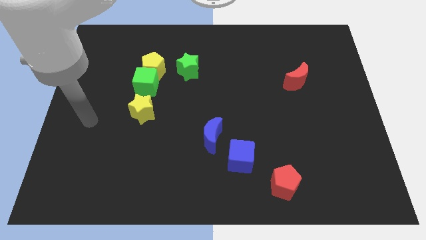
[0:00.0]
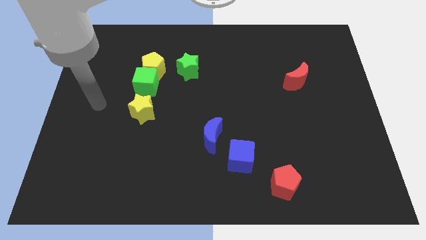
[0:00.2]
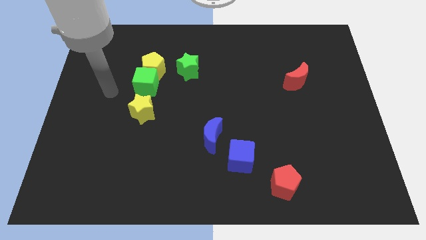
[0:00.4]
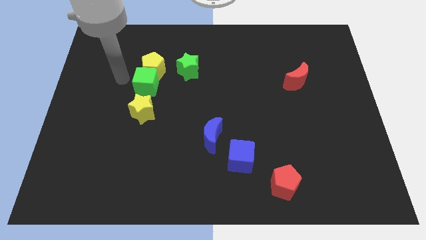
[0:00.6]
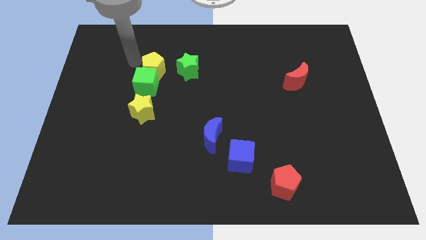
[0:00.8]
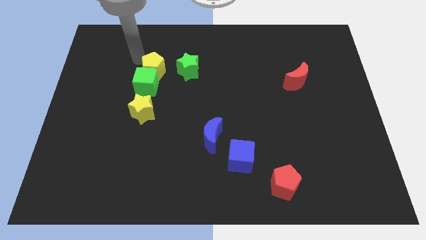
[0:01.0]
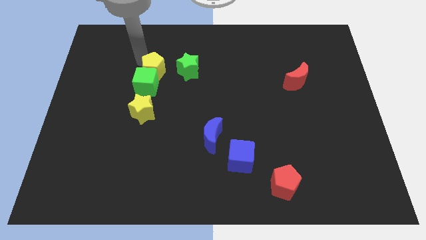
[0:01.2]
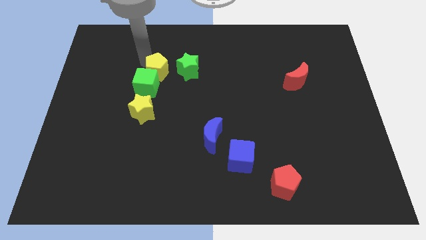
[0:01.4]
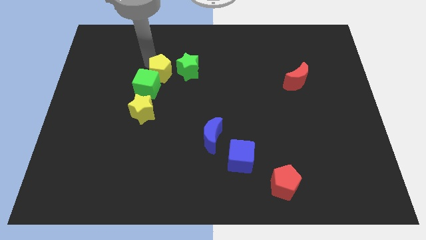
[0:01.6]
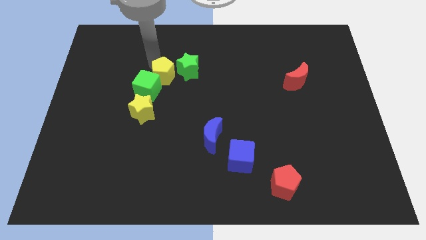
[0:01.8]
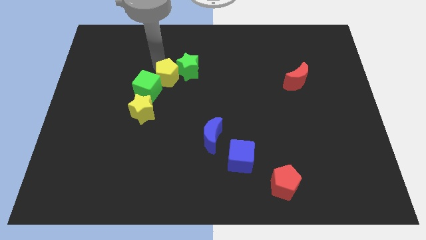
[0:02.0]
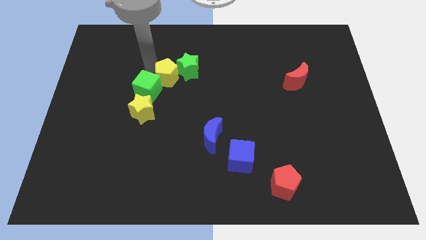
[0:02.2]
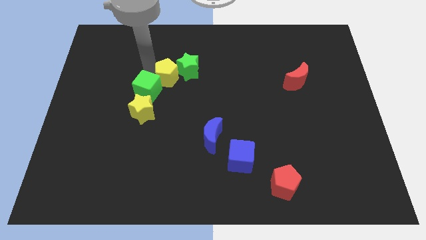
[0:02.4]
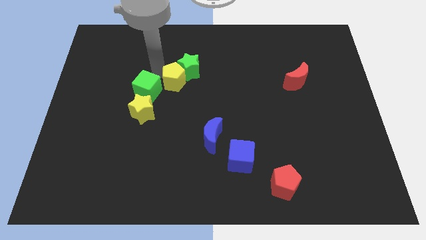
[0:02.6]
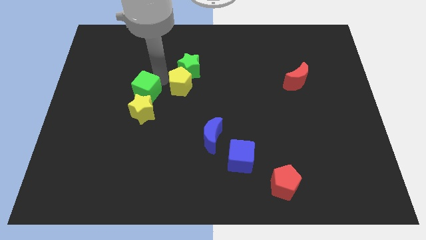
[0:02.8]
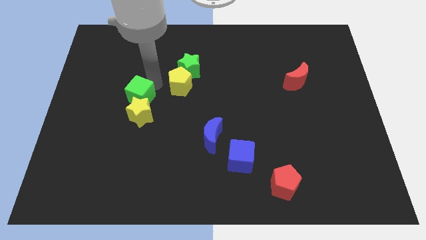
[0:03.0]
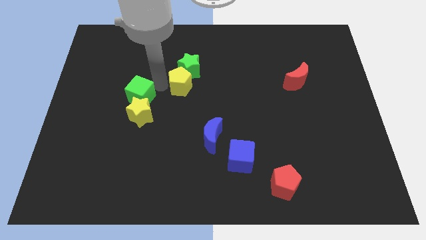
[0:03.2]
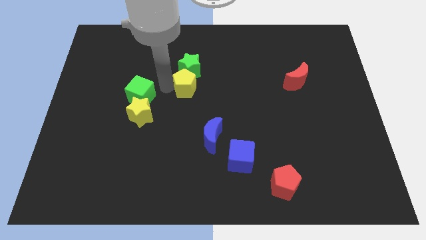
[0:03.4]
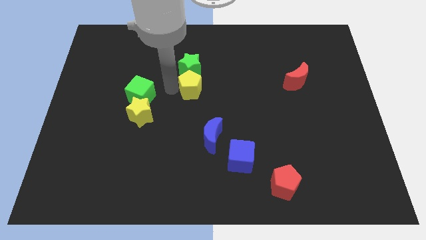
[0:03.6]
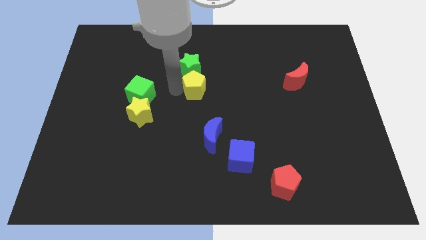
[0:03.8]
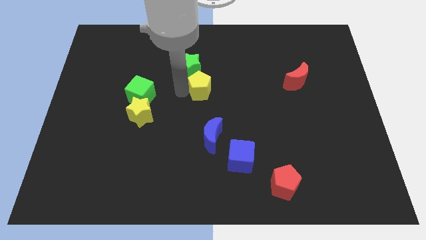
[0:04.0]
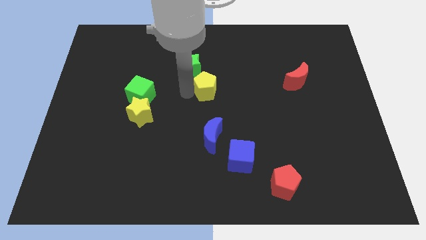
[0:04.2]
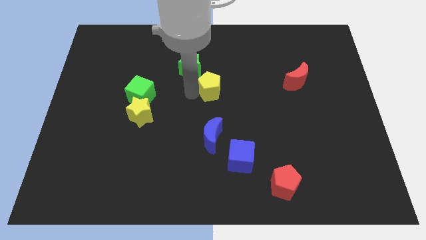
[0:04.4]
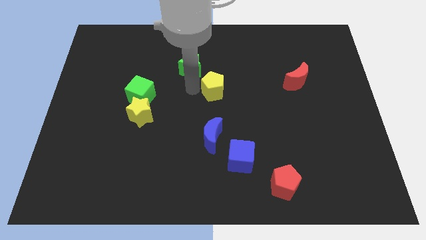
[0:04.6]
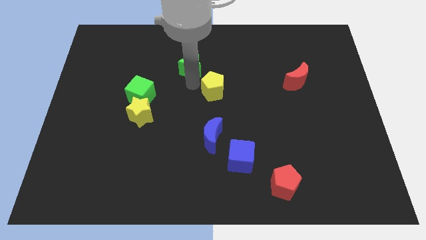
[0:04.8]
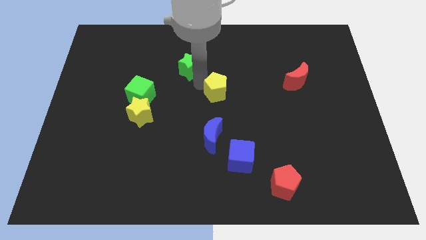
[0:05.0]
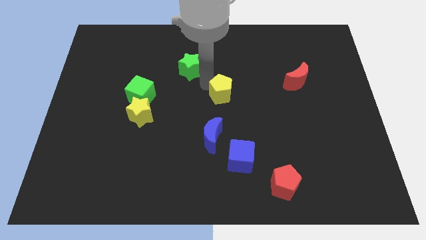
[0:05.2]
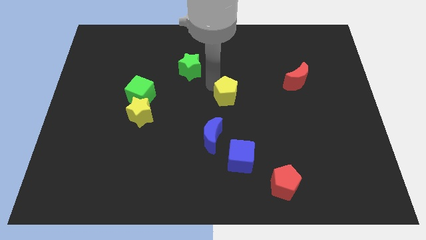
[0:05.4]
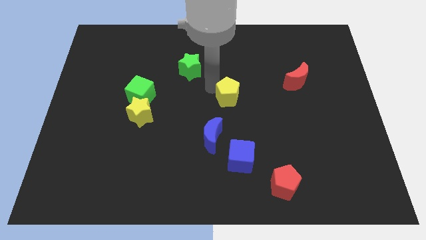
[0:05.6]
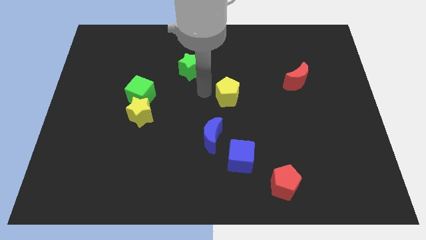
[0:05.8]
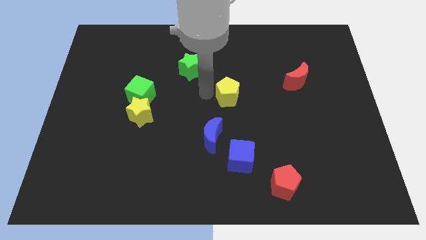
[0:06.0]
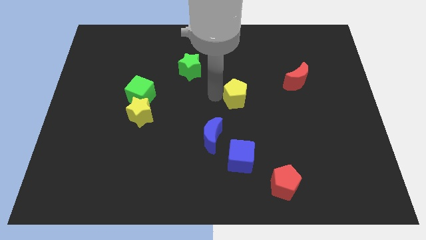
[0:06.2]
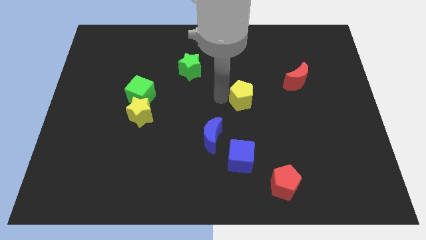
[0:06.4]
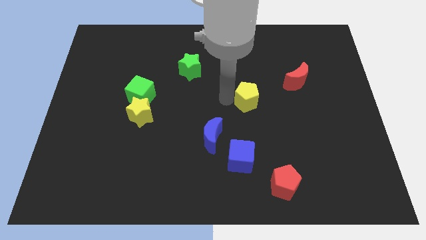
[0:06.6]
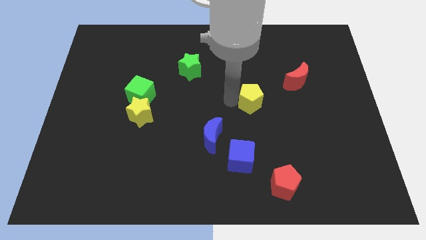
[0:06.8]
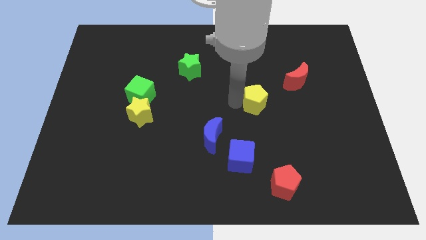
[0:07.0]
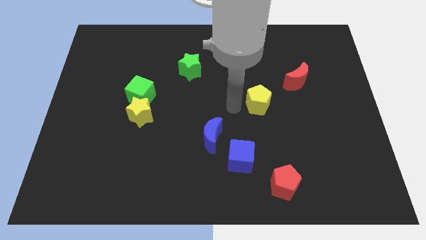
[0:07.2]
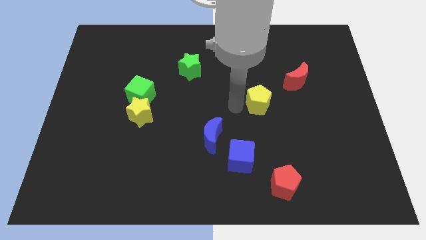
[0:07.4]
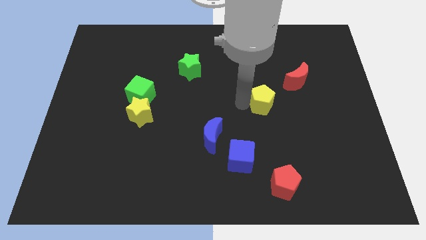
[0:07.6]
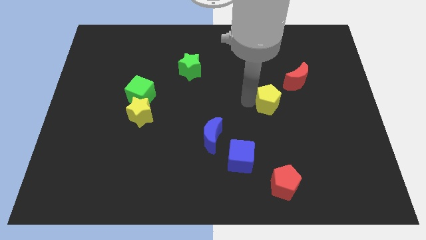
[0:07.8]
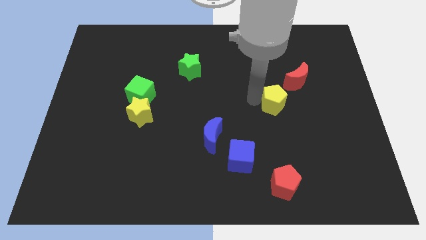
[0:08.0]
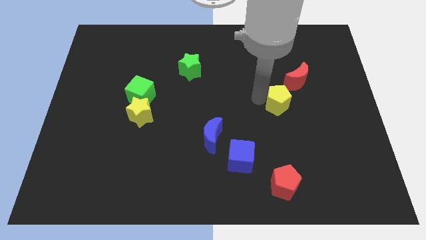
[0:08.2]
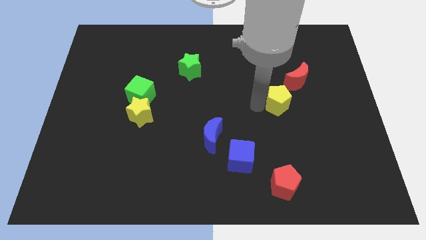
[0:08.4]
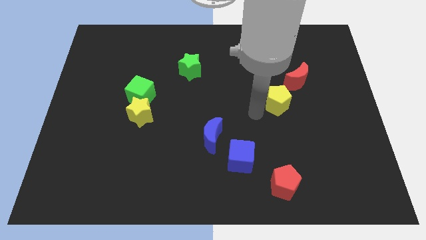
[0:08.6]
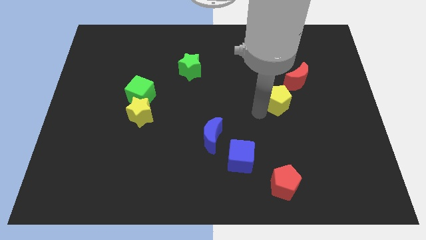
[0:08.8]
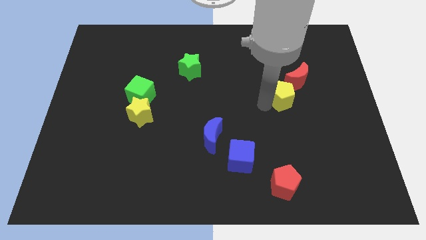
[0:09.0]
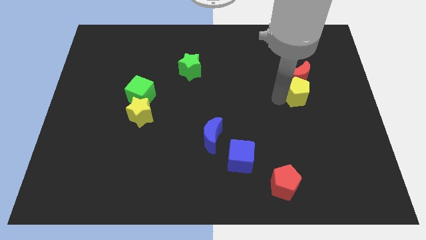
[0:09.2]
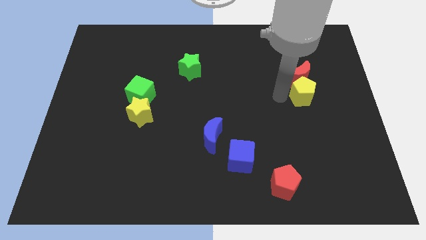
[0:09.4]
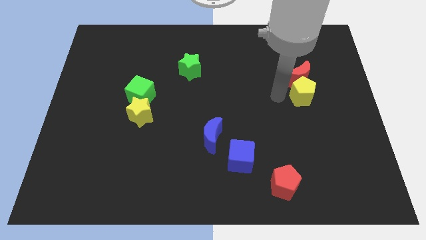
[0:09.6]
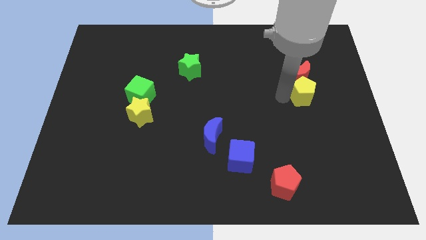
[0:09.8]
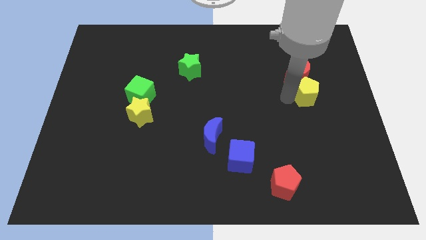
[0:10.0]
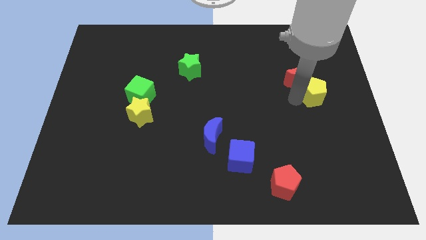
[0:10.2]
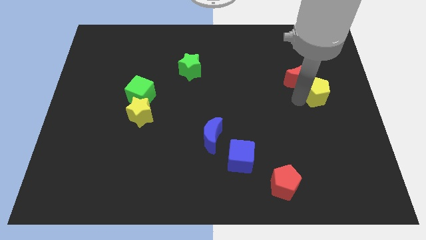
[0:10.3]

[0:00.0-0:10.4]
slide the yellow pentagon to the right side of the board
